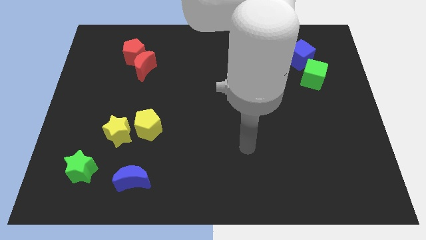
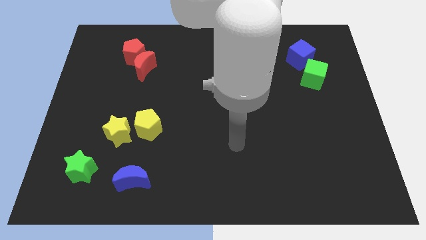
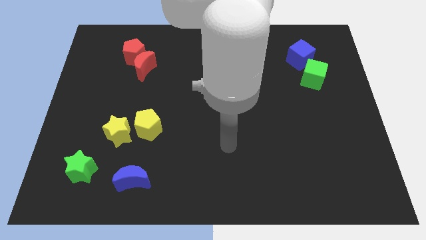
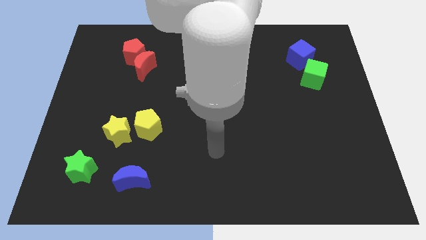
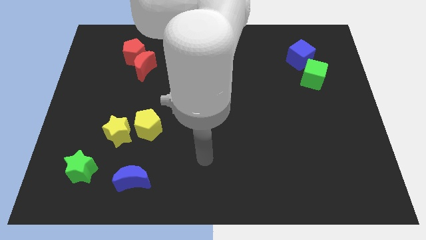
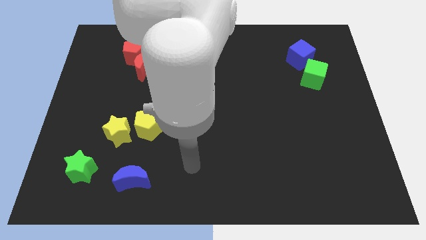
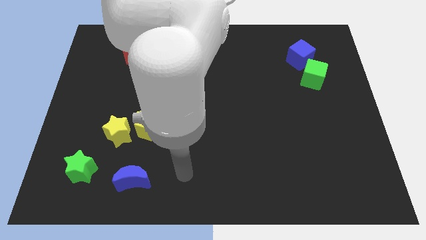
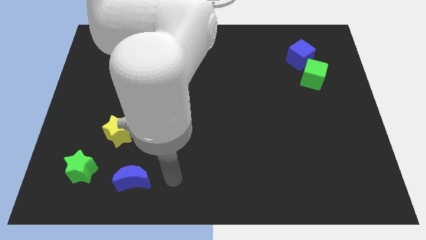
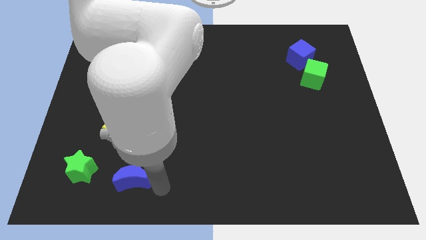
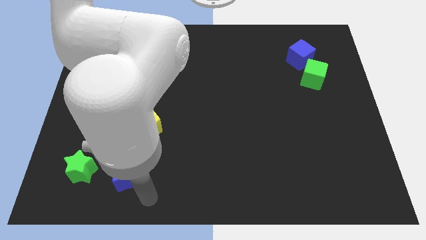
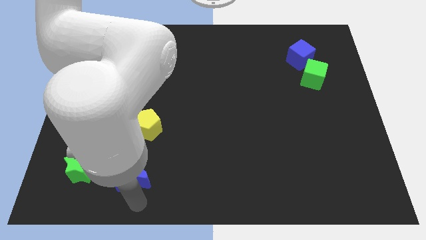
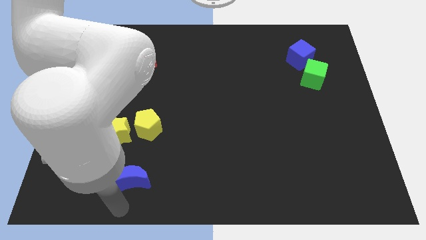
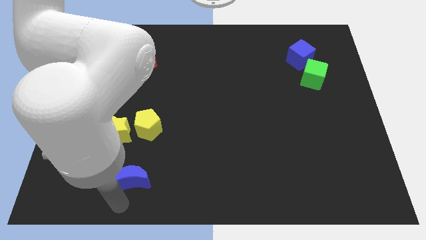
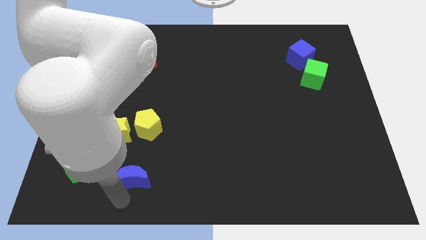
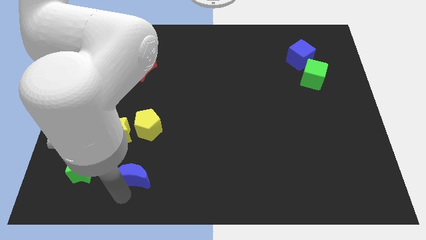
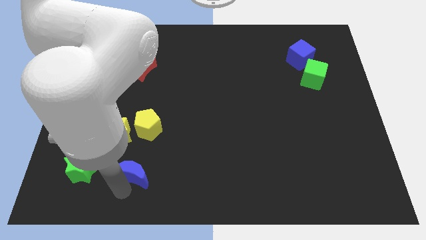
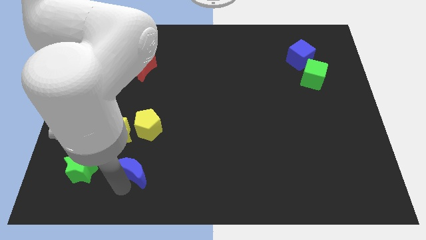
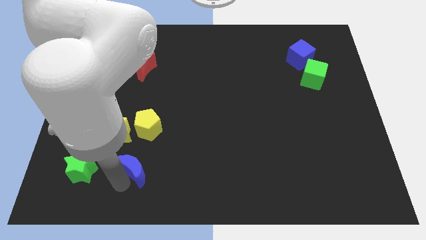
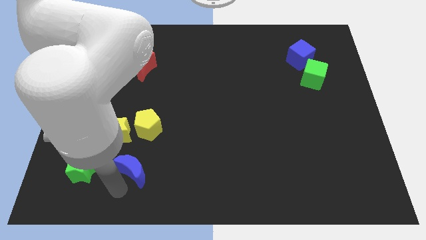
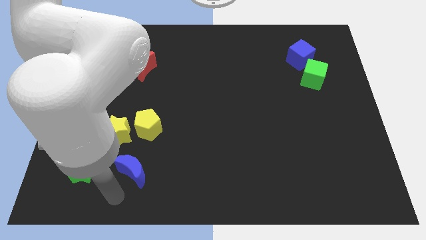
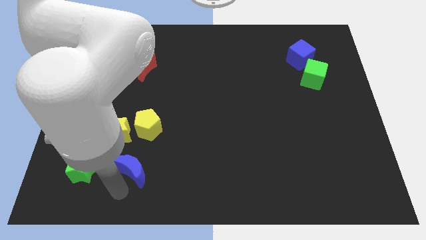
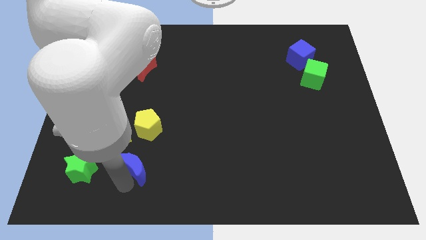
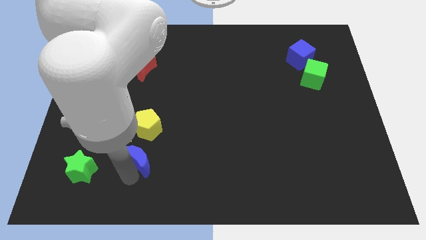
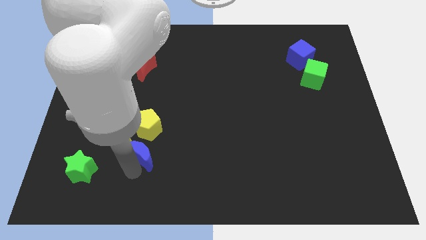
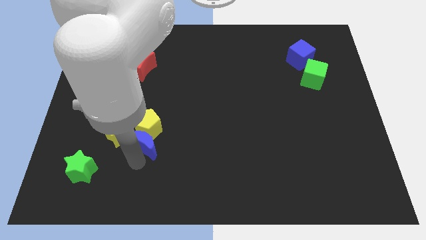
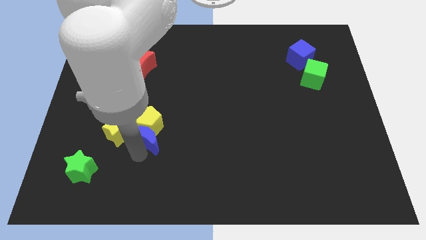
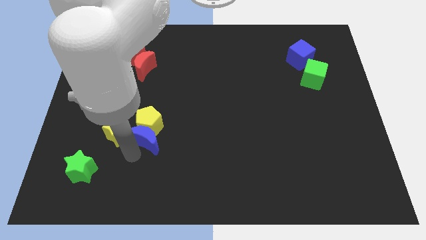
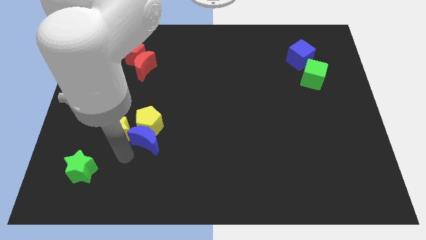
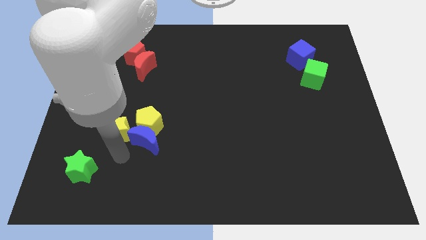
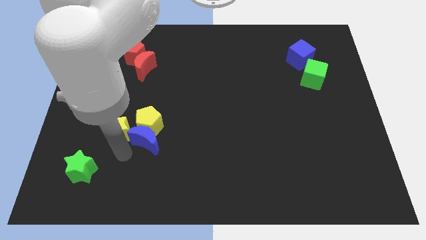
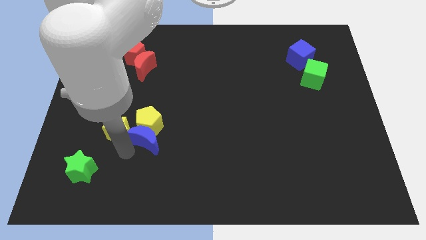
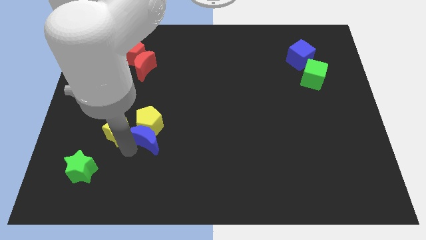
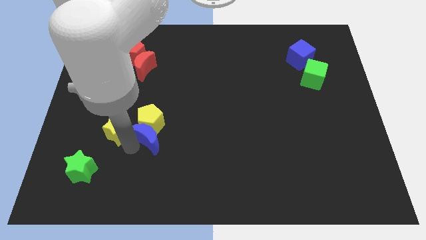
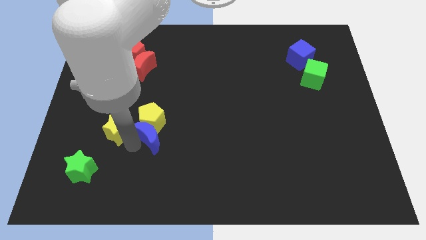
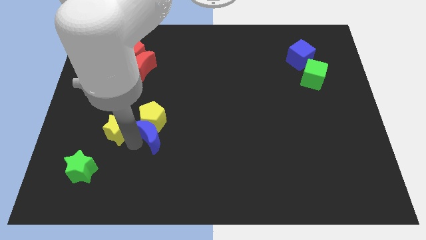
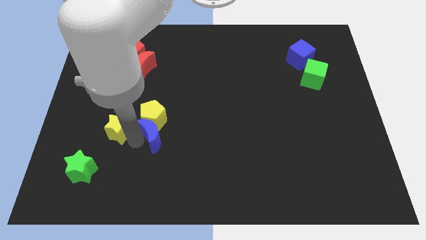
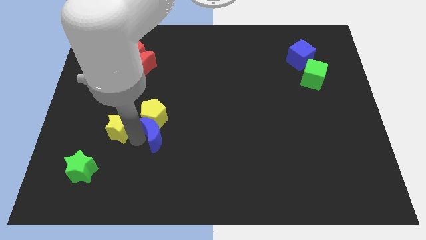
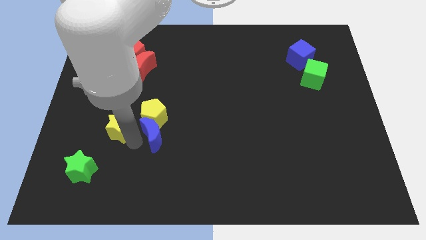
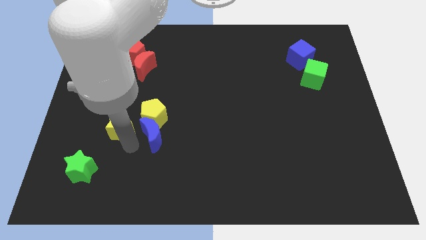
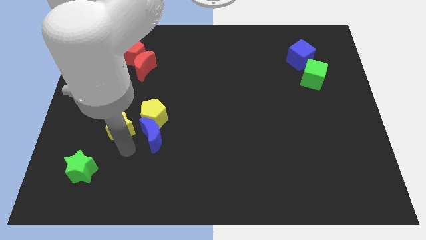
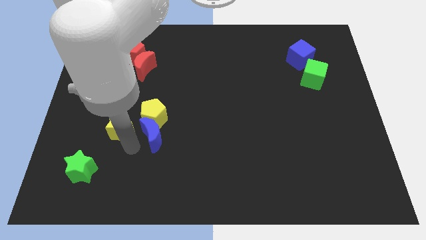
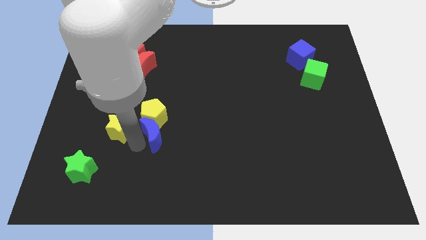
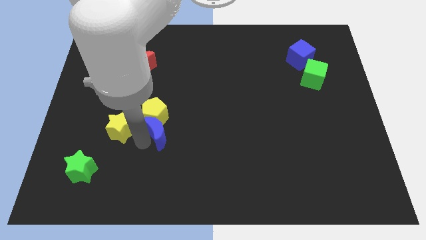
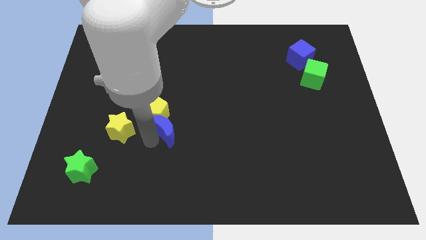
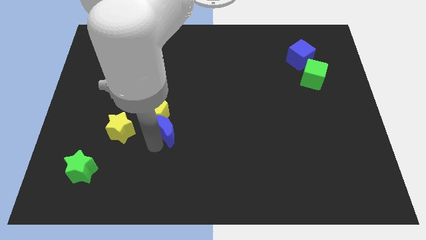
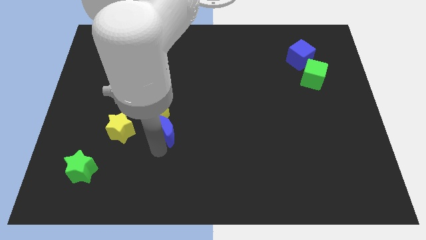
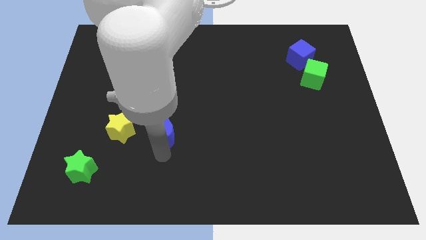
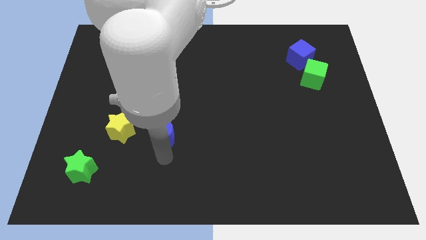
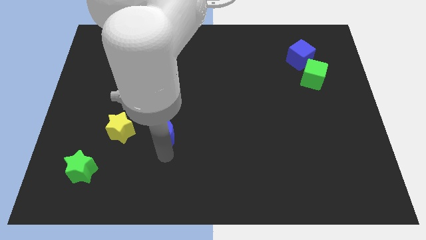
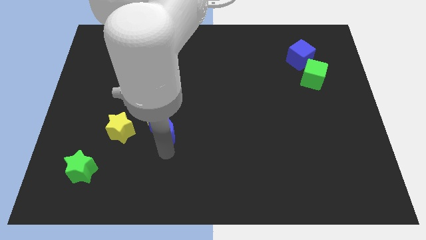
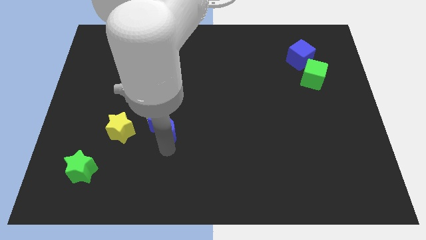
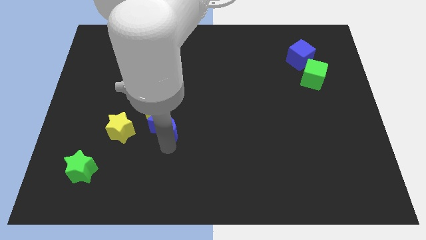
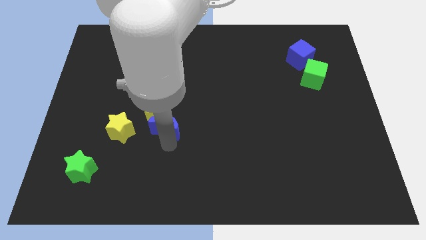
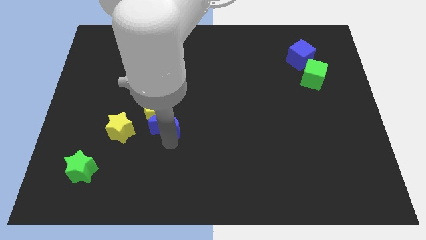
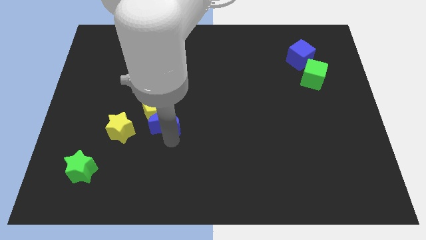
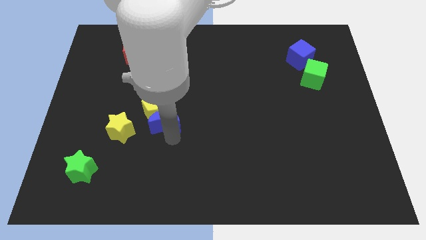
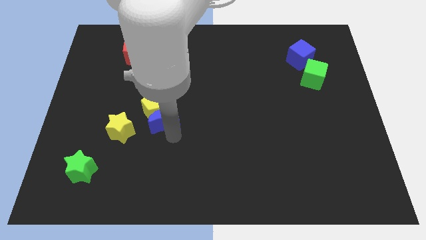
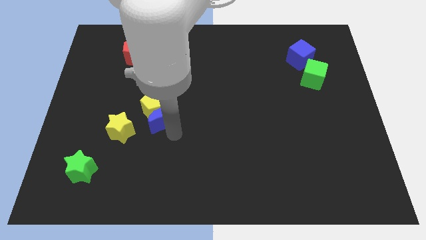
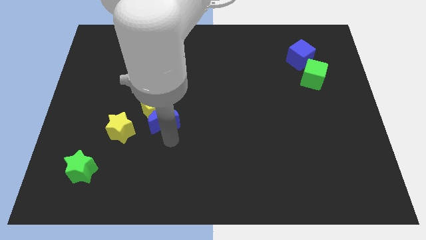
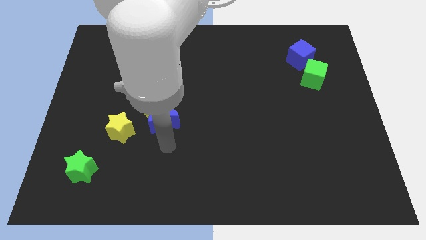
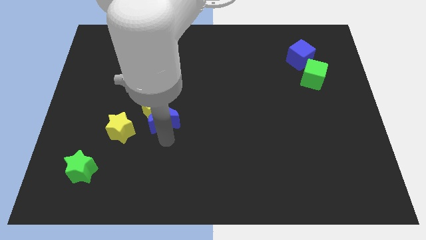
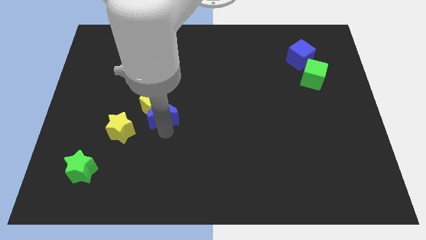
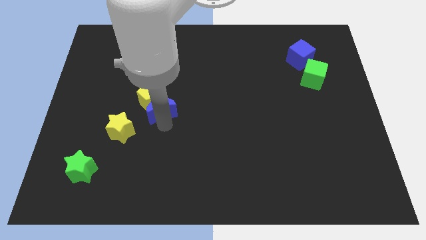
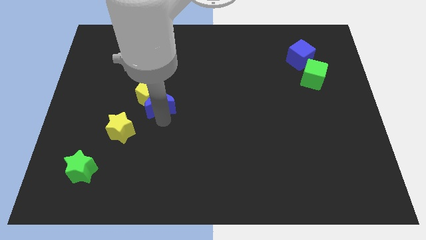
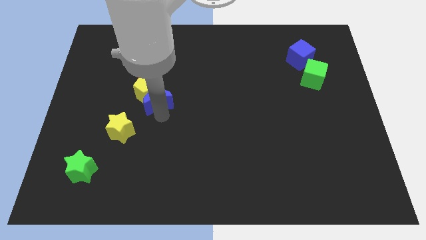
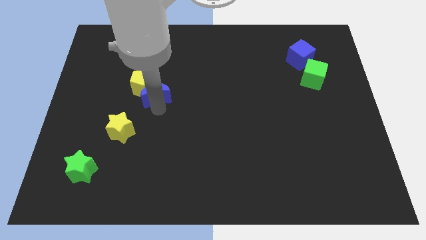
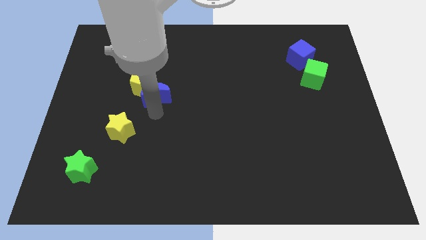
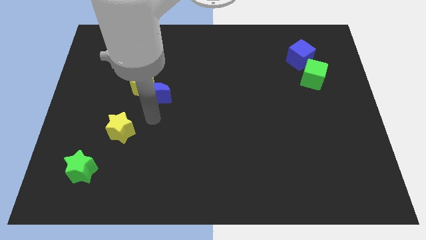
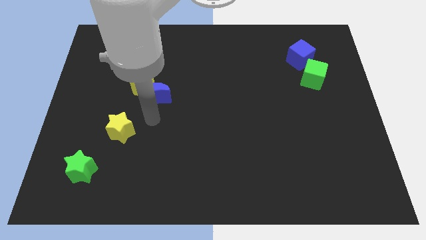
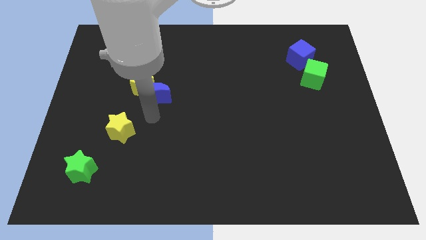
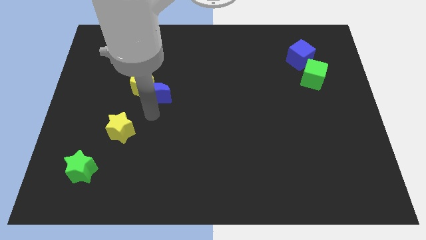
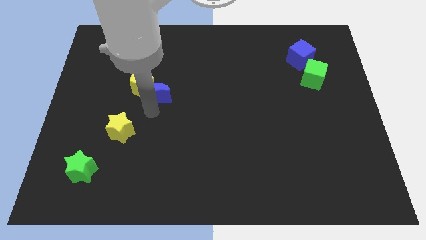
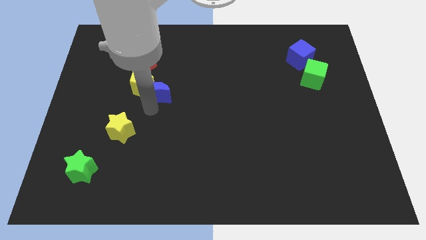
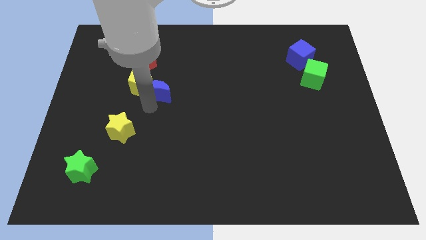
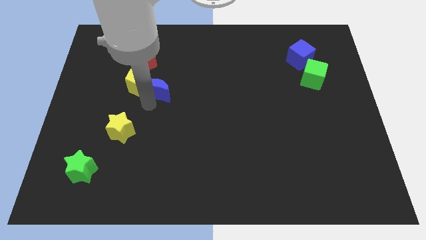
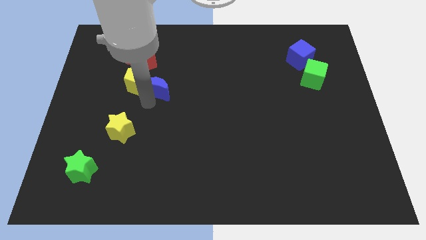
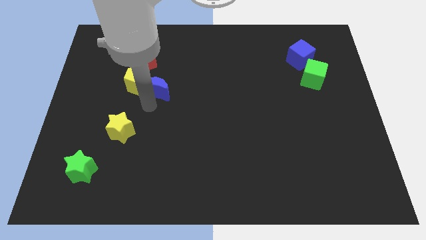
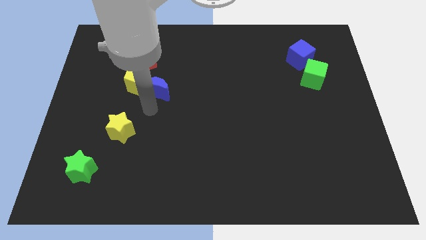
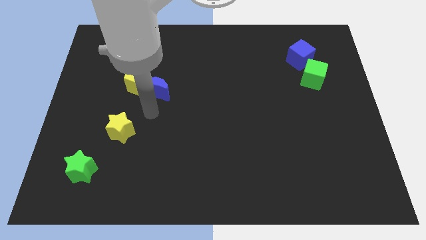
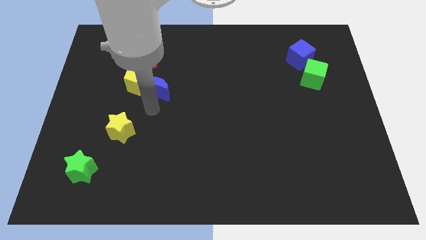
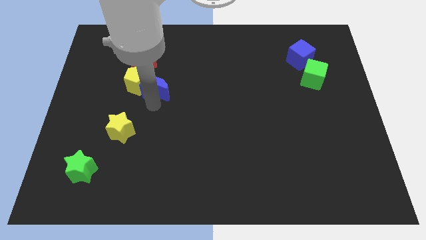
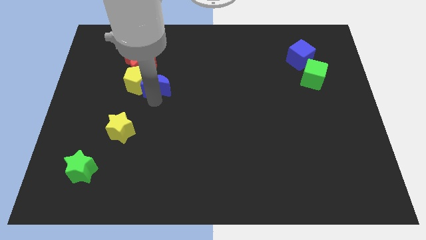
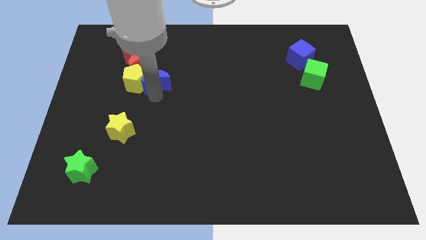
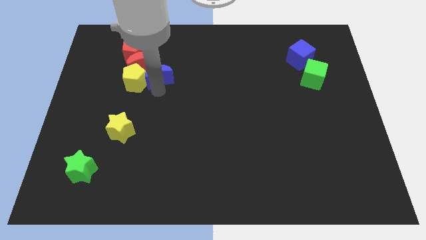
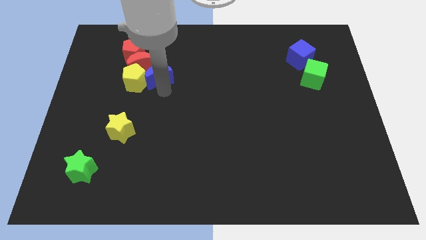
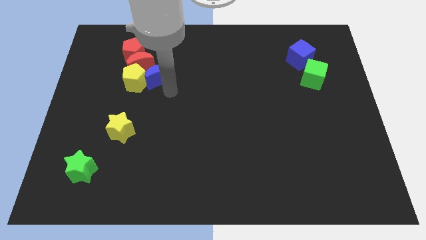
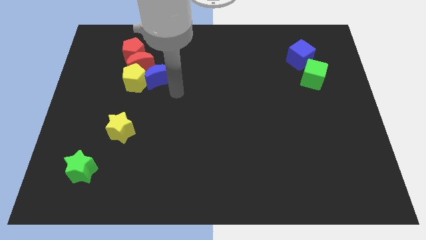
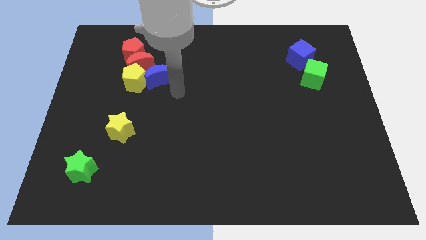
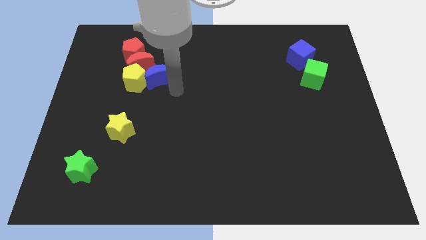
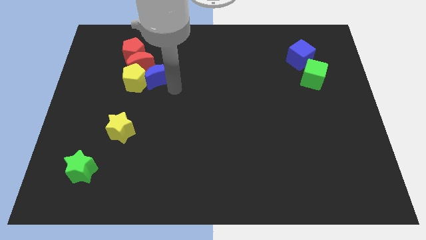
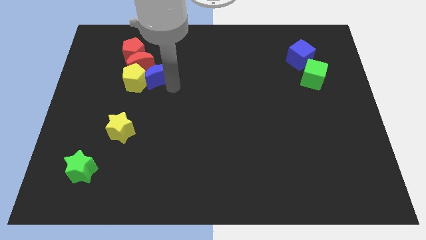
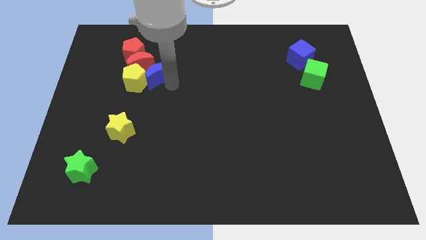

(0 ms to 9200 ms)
slide the blue moon to the red moon
